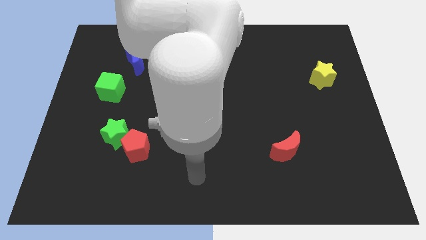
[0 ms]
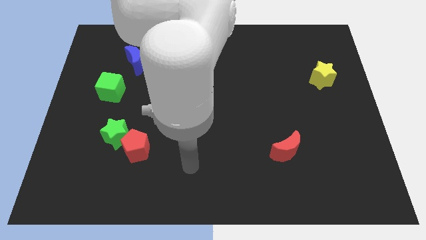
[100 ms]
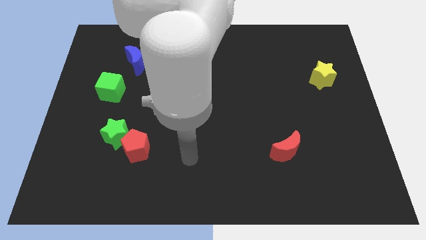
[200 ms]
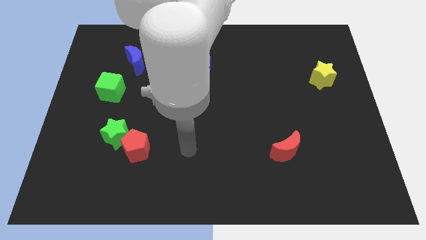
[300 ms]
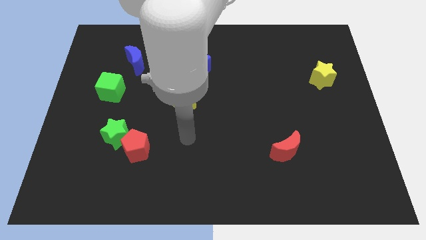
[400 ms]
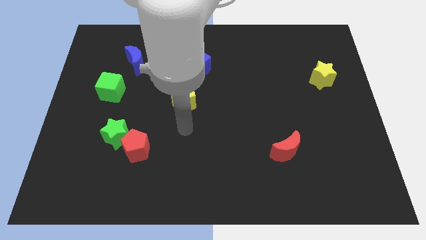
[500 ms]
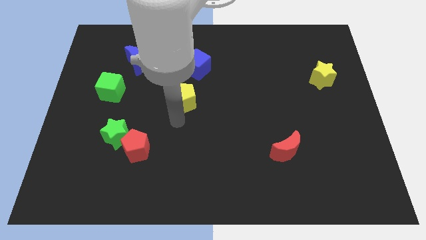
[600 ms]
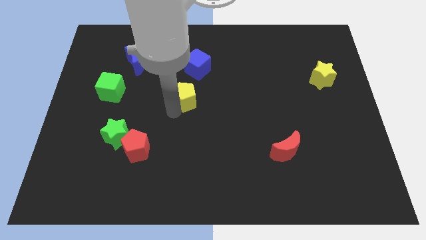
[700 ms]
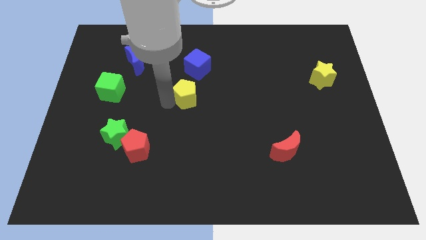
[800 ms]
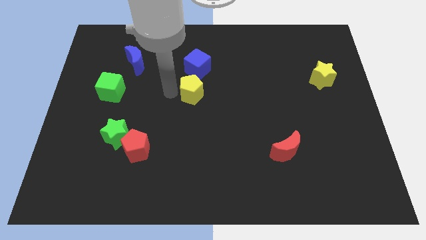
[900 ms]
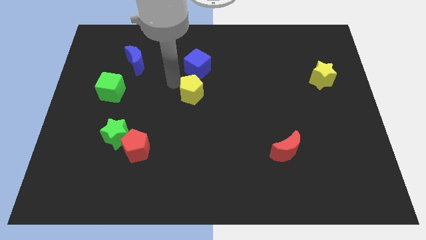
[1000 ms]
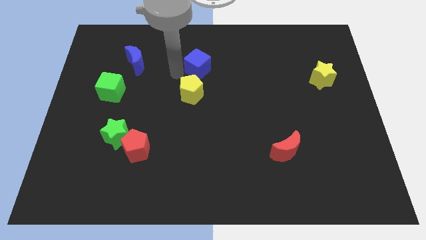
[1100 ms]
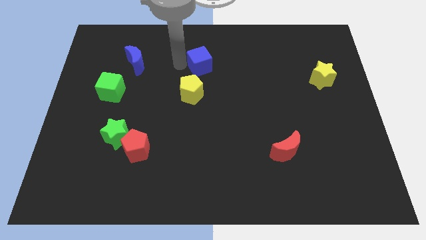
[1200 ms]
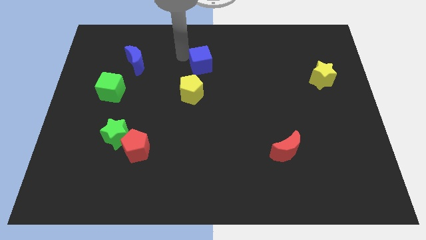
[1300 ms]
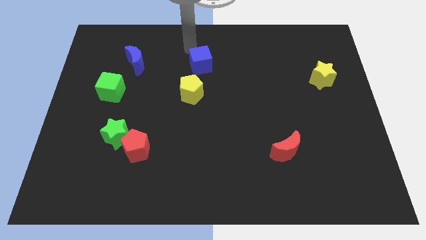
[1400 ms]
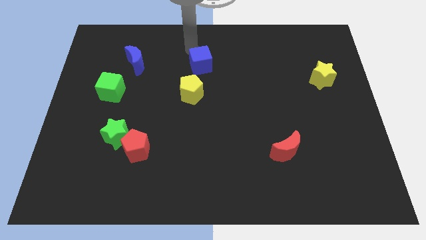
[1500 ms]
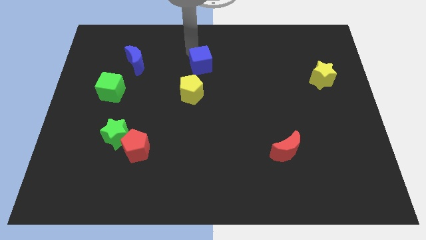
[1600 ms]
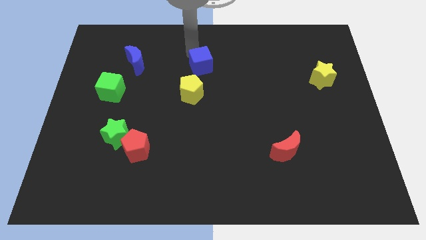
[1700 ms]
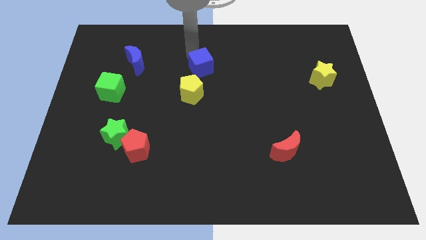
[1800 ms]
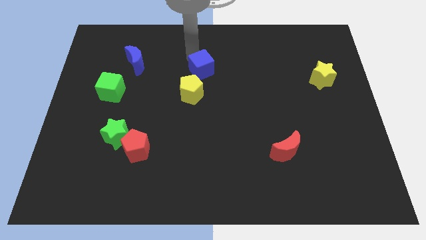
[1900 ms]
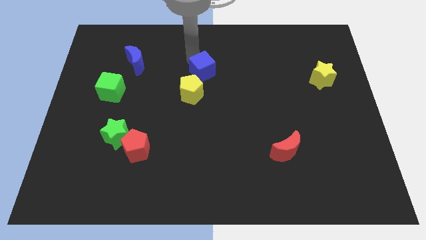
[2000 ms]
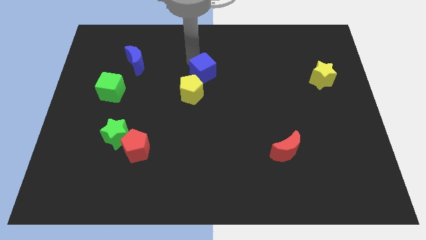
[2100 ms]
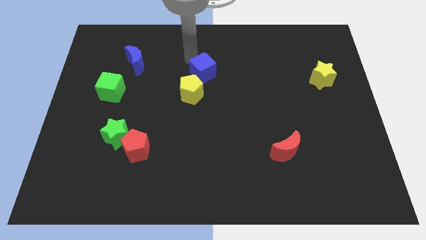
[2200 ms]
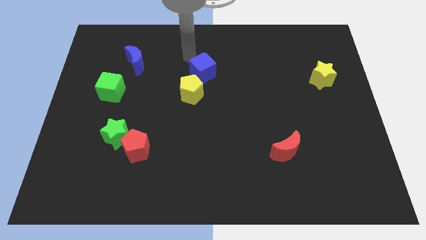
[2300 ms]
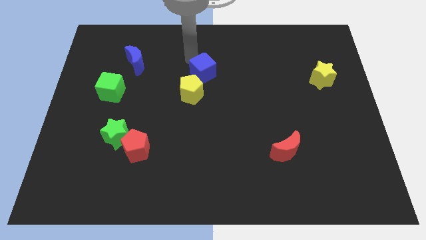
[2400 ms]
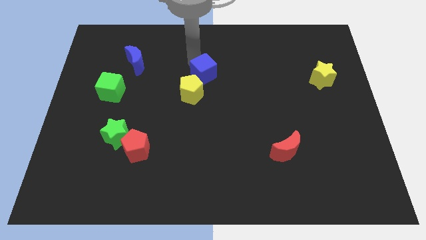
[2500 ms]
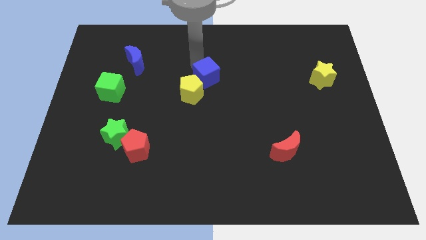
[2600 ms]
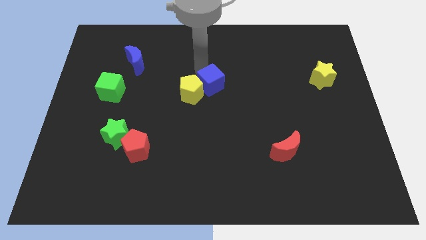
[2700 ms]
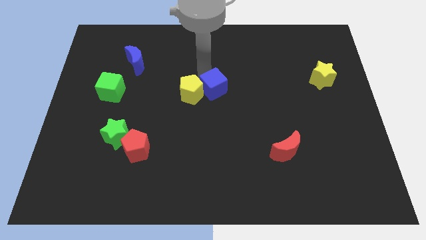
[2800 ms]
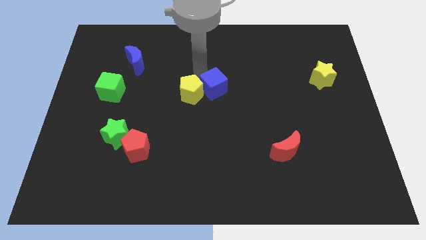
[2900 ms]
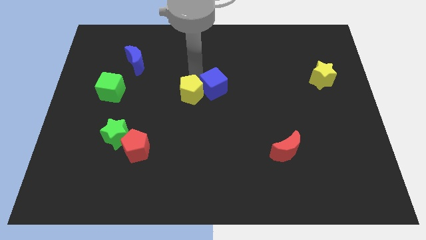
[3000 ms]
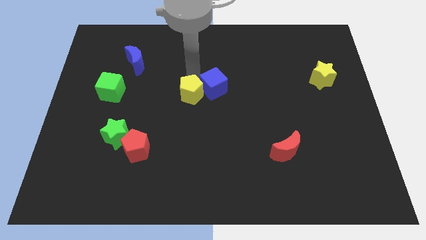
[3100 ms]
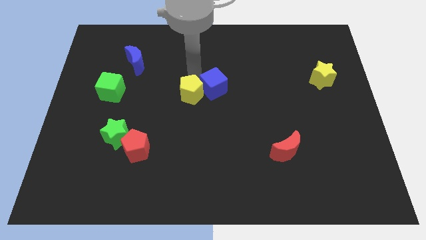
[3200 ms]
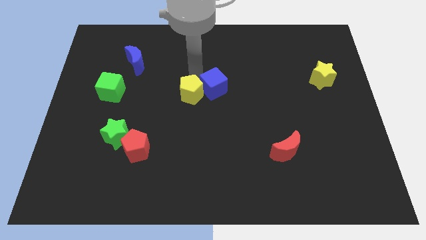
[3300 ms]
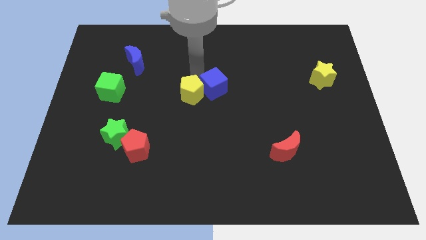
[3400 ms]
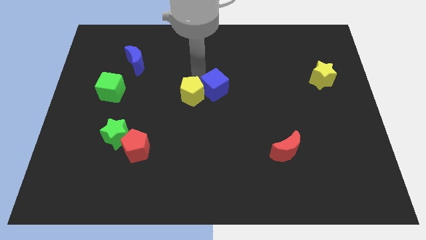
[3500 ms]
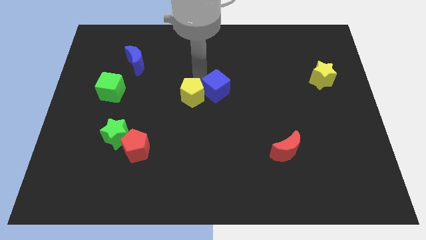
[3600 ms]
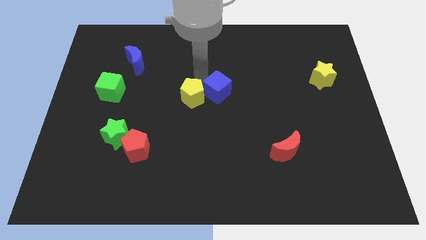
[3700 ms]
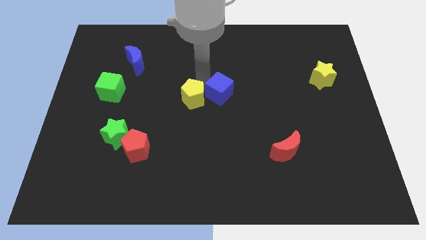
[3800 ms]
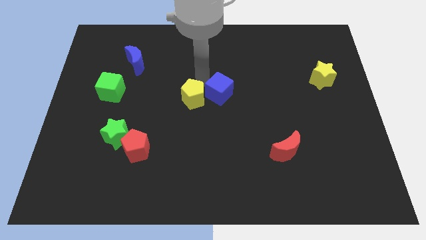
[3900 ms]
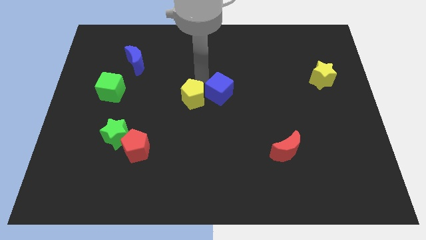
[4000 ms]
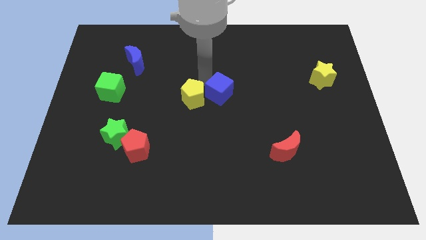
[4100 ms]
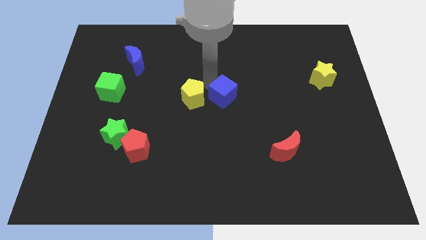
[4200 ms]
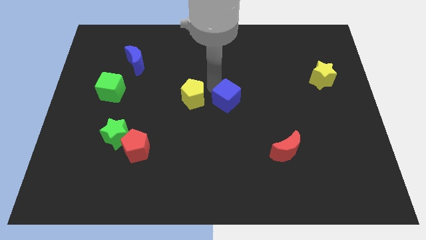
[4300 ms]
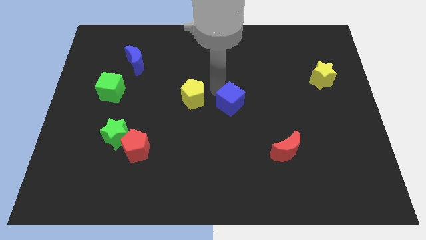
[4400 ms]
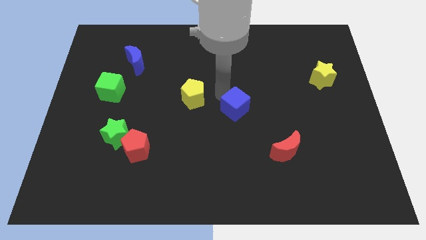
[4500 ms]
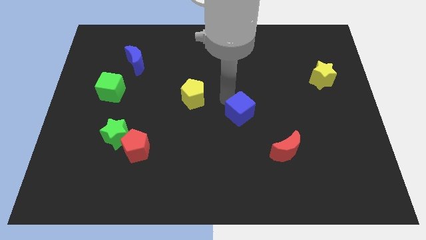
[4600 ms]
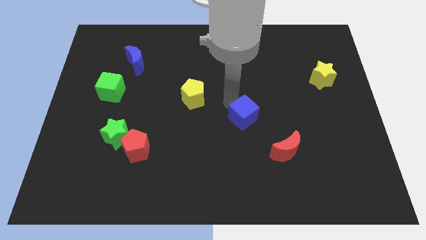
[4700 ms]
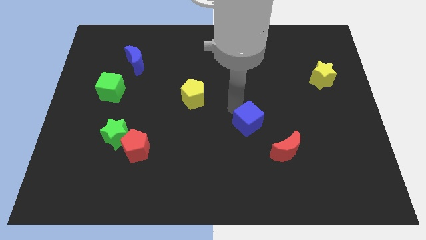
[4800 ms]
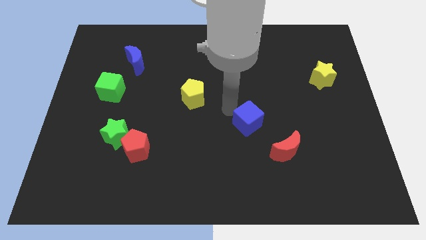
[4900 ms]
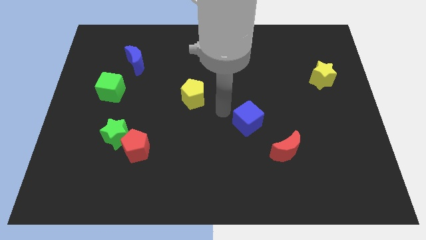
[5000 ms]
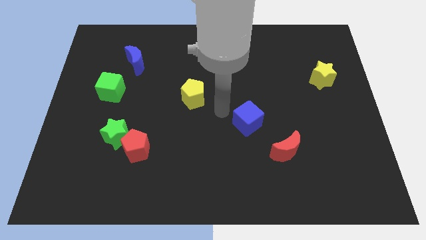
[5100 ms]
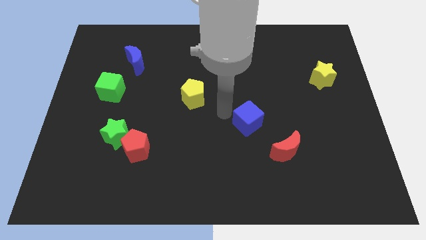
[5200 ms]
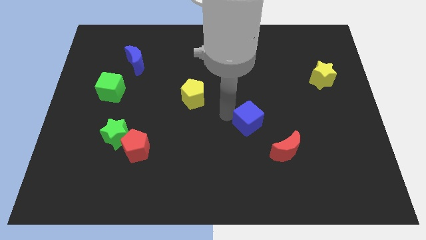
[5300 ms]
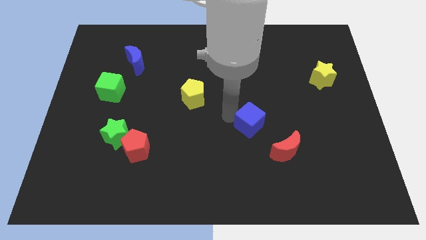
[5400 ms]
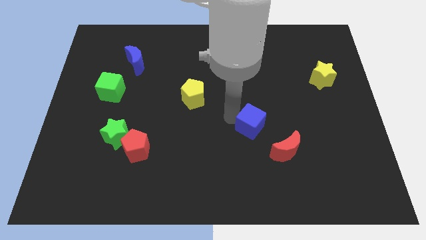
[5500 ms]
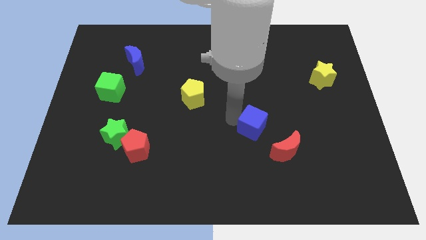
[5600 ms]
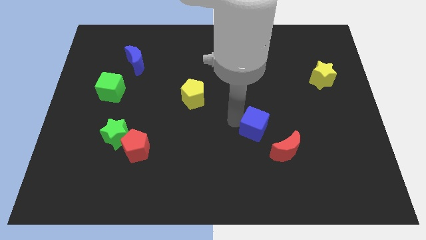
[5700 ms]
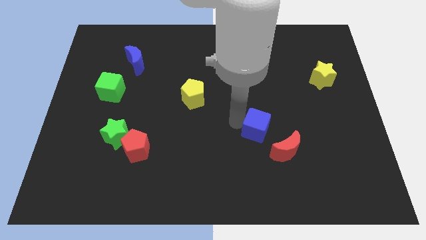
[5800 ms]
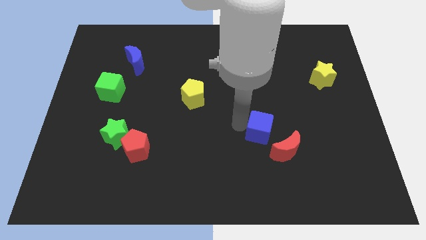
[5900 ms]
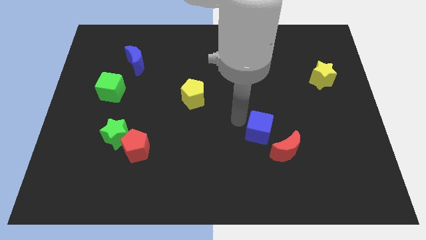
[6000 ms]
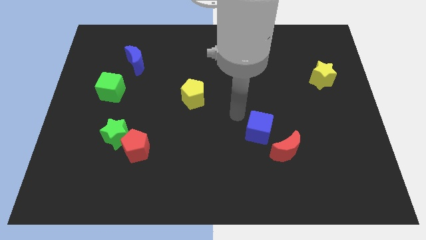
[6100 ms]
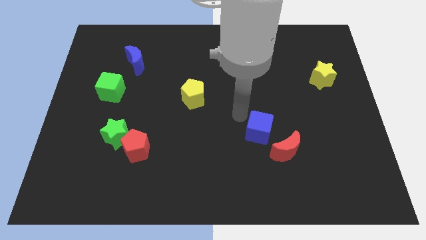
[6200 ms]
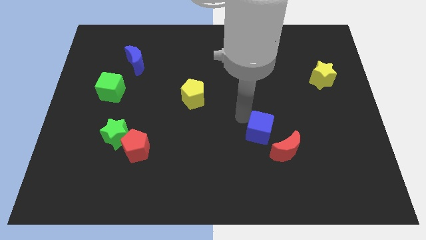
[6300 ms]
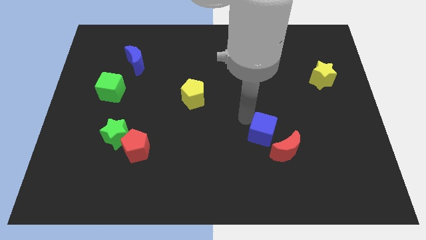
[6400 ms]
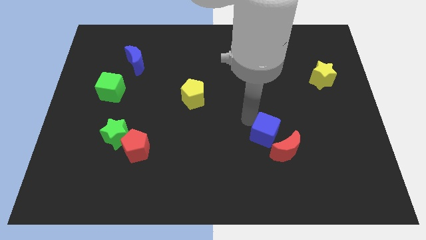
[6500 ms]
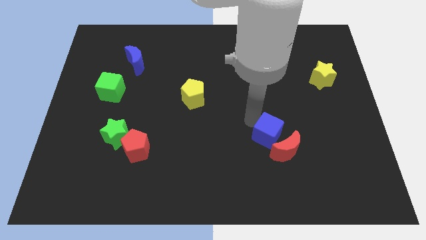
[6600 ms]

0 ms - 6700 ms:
push the blue cube to the red moon
